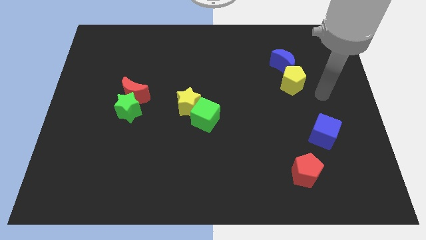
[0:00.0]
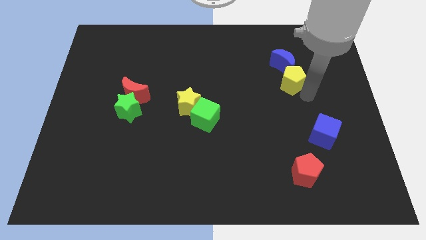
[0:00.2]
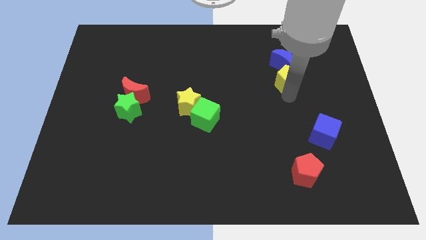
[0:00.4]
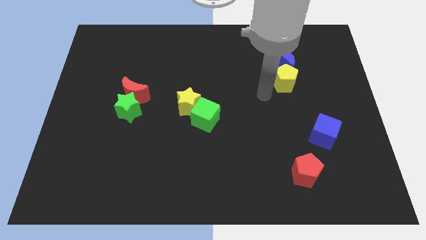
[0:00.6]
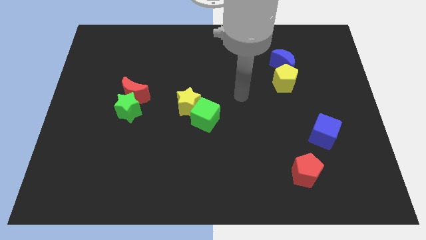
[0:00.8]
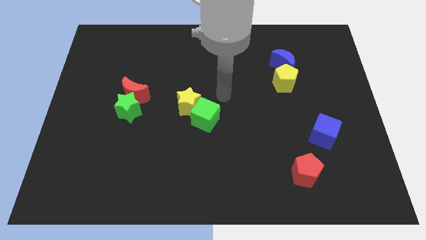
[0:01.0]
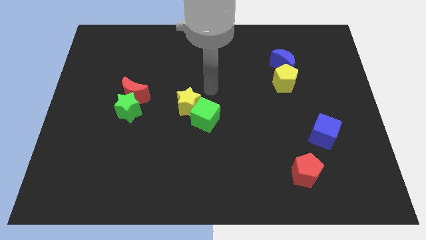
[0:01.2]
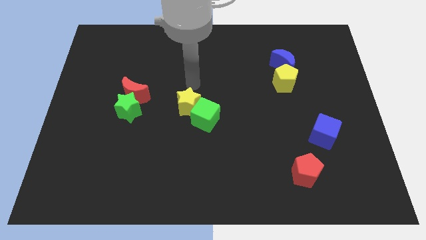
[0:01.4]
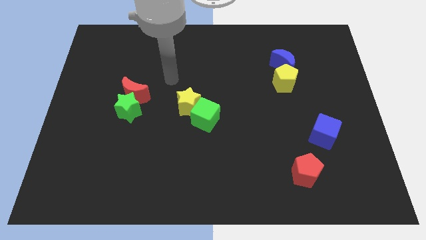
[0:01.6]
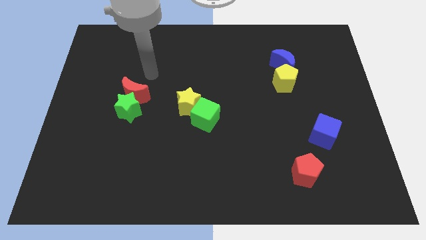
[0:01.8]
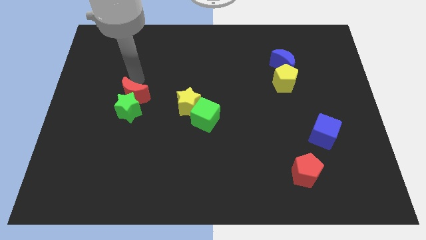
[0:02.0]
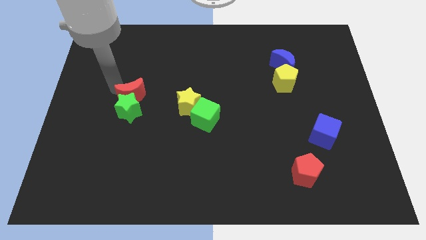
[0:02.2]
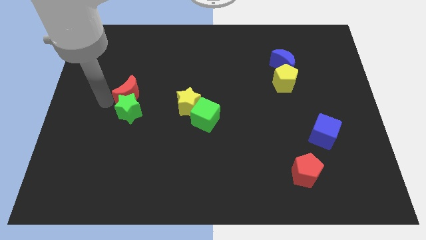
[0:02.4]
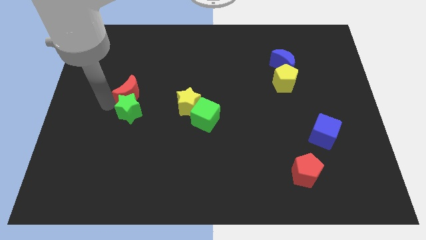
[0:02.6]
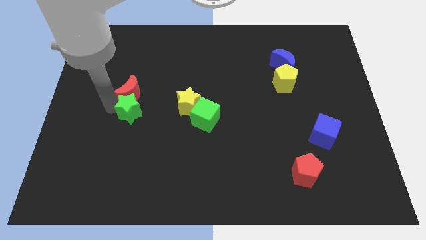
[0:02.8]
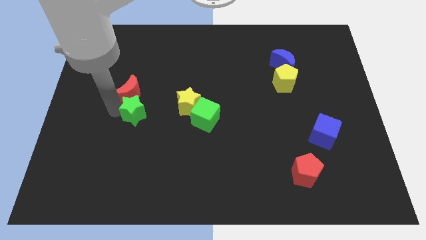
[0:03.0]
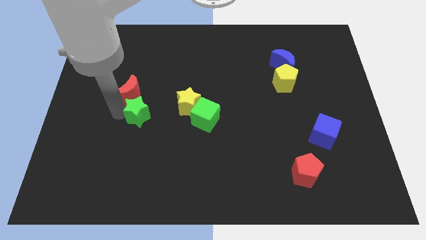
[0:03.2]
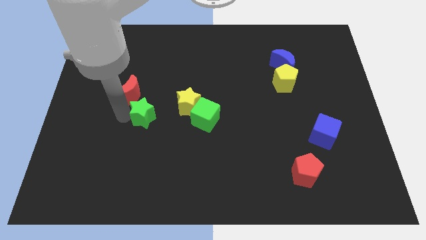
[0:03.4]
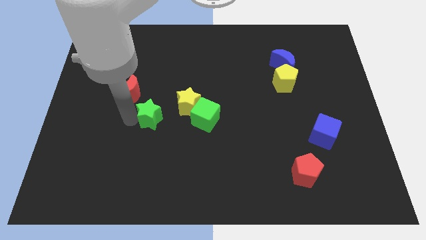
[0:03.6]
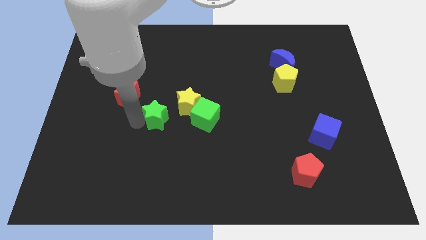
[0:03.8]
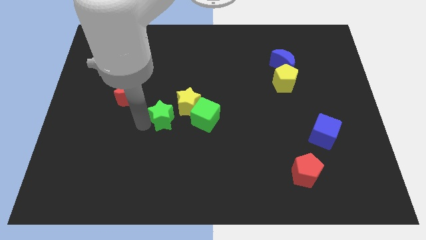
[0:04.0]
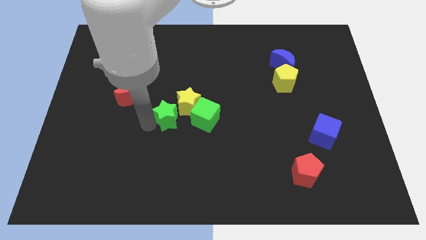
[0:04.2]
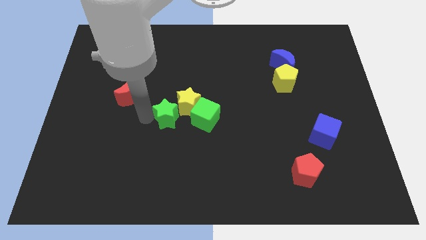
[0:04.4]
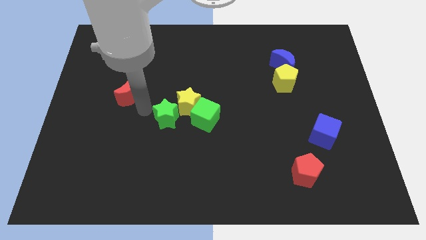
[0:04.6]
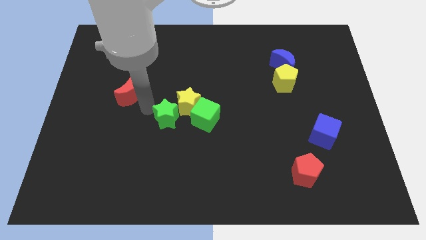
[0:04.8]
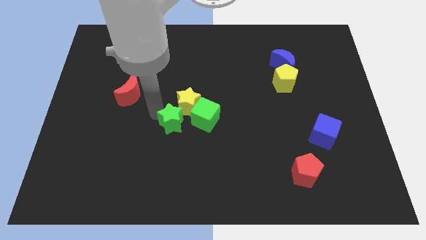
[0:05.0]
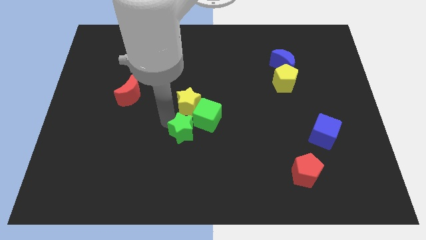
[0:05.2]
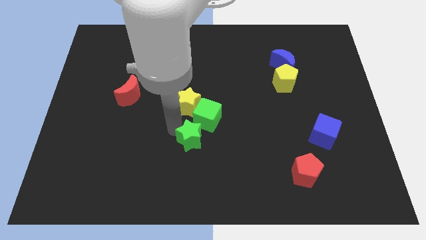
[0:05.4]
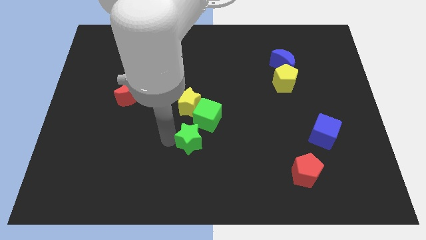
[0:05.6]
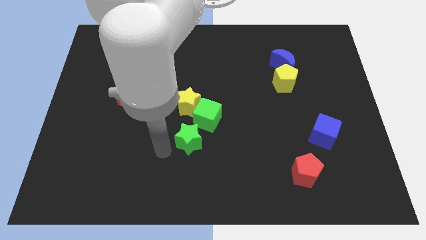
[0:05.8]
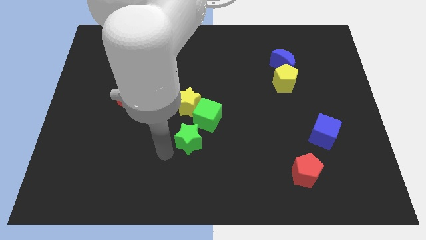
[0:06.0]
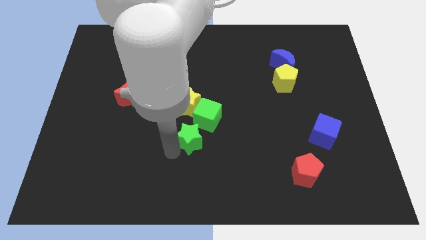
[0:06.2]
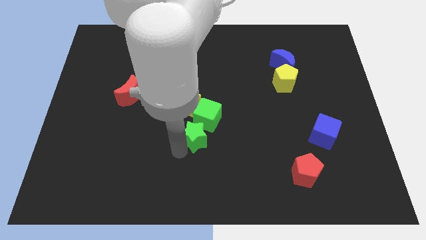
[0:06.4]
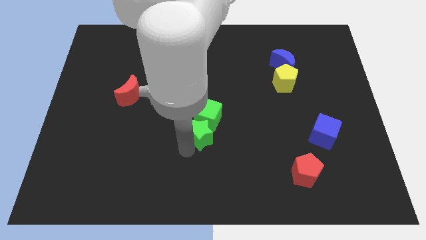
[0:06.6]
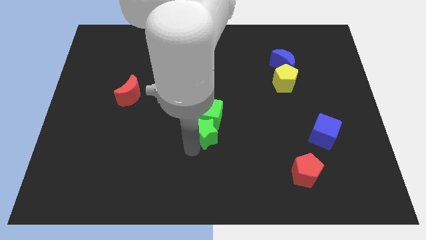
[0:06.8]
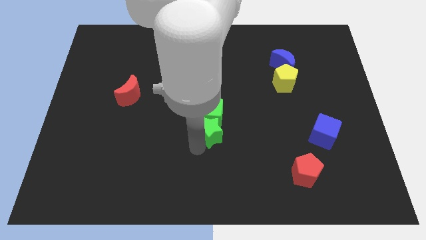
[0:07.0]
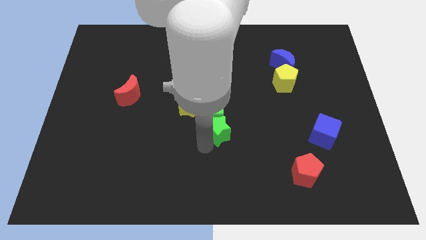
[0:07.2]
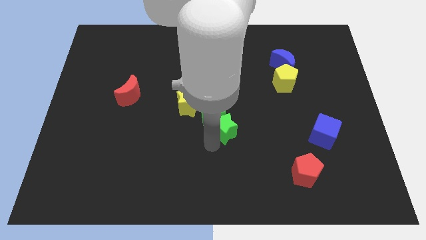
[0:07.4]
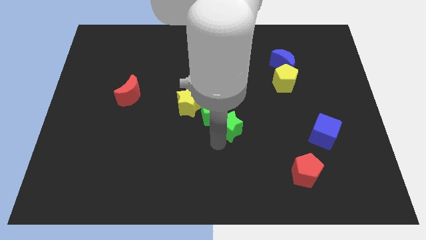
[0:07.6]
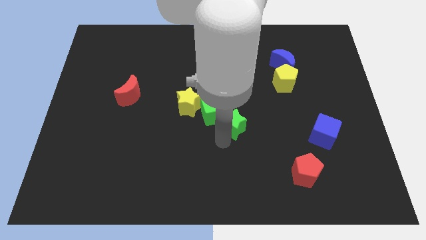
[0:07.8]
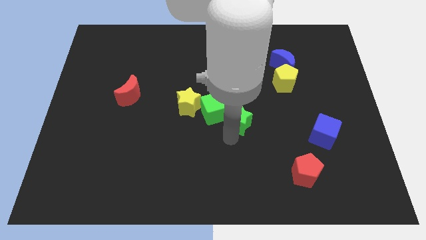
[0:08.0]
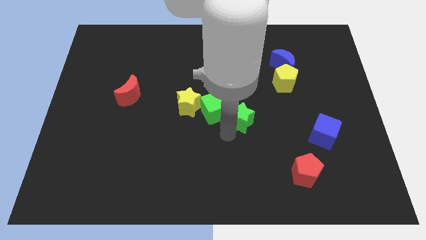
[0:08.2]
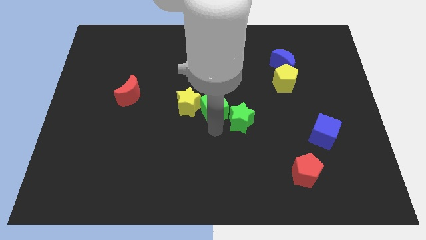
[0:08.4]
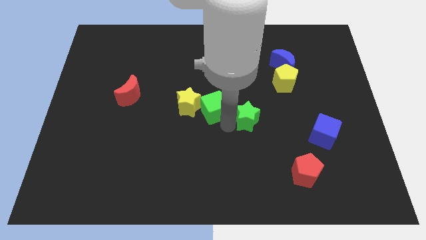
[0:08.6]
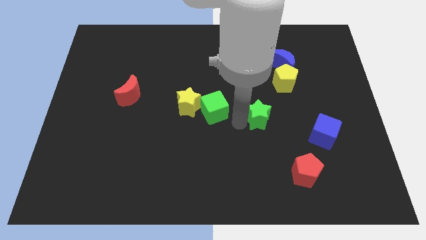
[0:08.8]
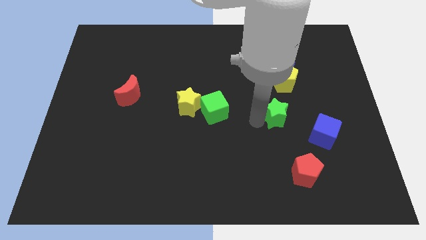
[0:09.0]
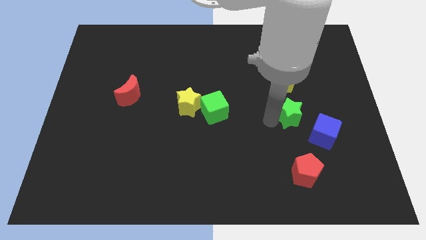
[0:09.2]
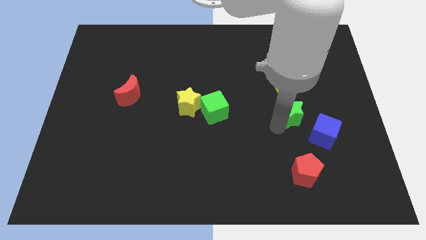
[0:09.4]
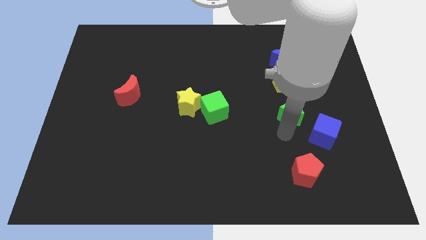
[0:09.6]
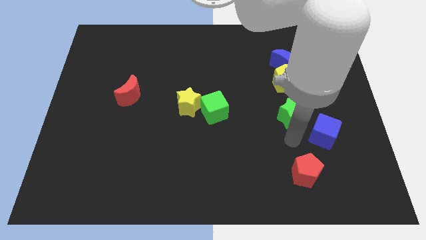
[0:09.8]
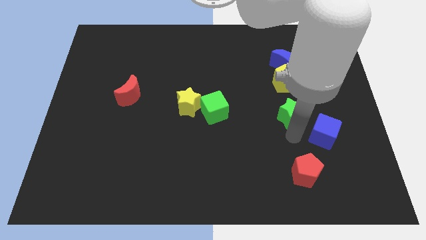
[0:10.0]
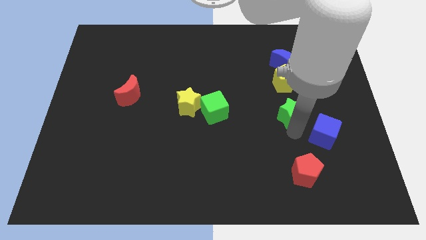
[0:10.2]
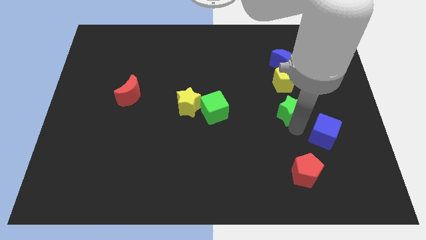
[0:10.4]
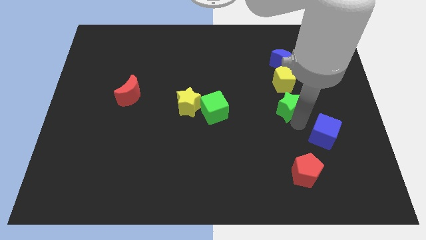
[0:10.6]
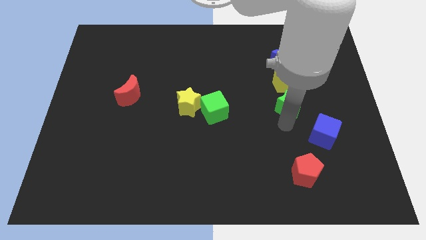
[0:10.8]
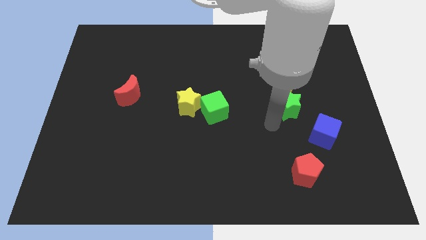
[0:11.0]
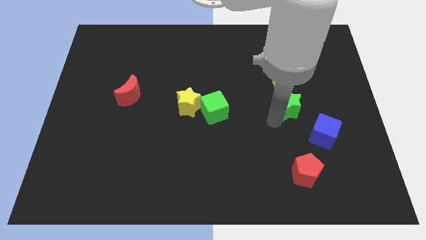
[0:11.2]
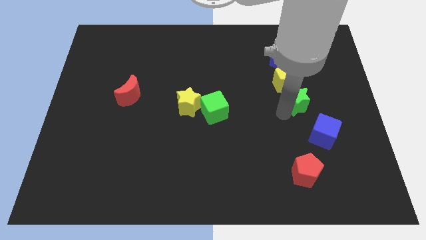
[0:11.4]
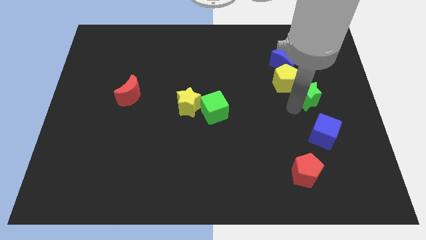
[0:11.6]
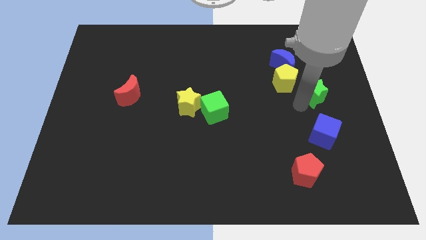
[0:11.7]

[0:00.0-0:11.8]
move the green star diagonally down and to the right of the blue moon

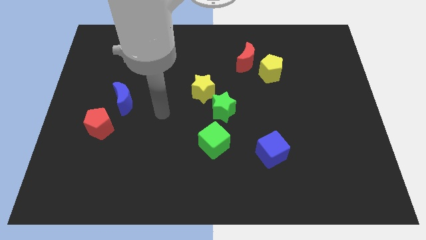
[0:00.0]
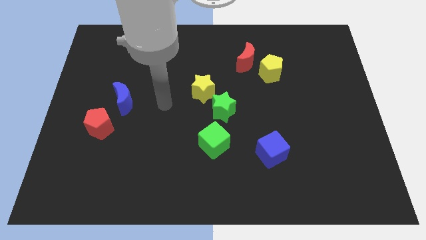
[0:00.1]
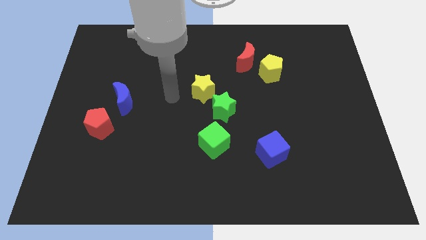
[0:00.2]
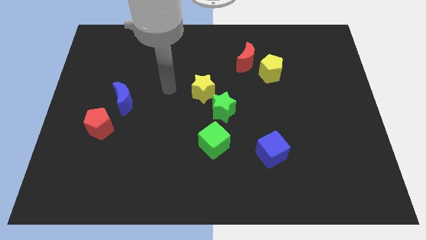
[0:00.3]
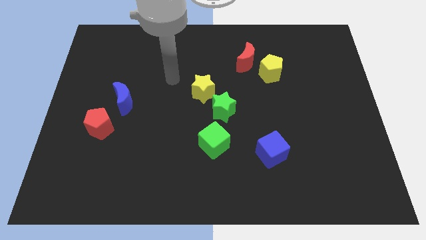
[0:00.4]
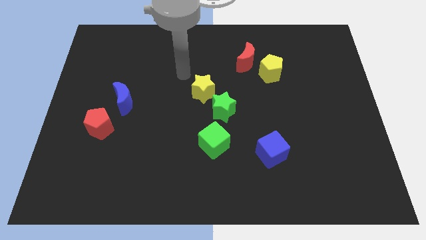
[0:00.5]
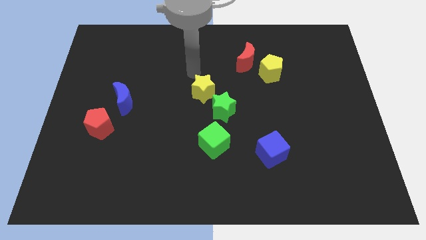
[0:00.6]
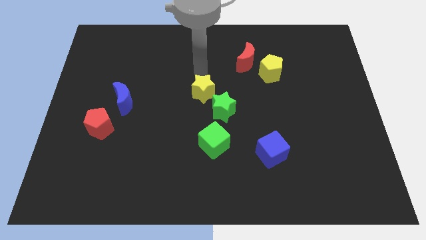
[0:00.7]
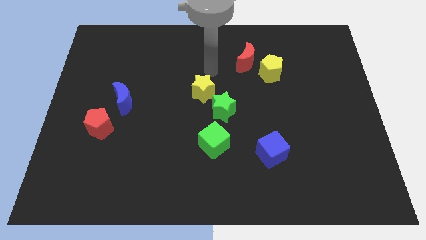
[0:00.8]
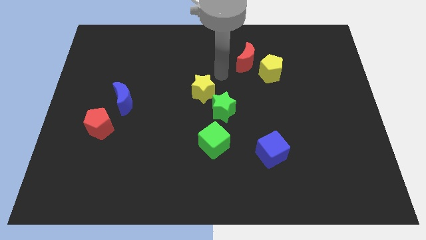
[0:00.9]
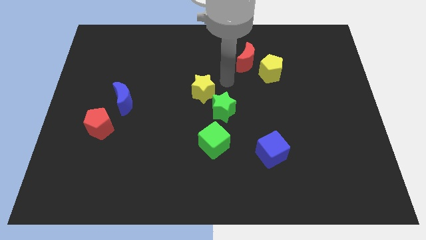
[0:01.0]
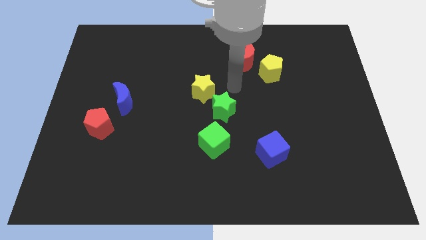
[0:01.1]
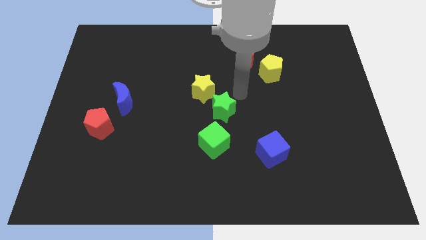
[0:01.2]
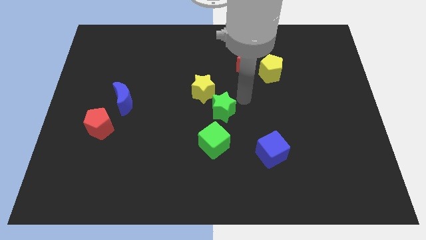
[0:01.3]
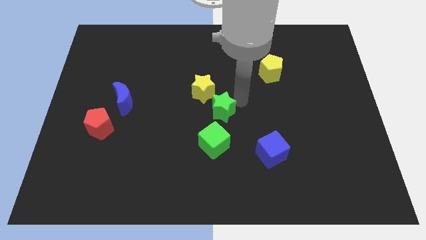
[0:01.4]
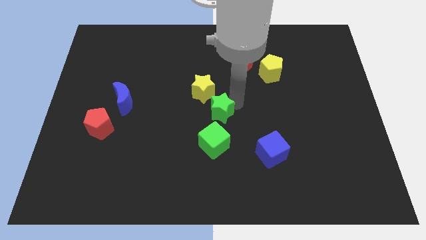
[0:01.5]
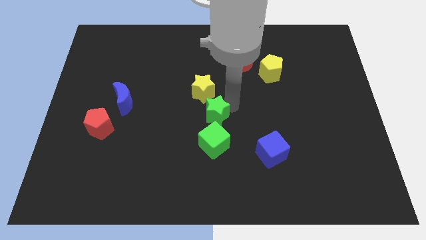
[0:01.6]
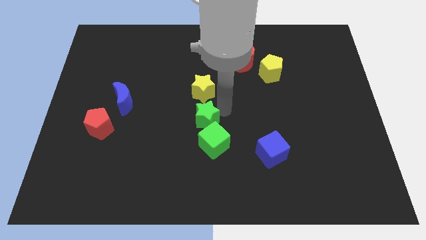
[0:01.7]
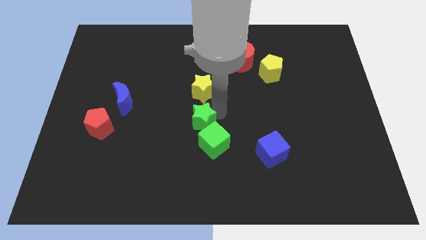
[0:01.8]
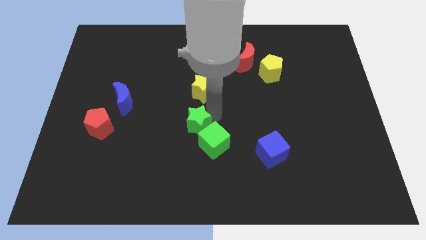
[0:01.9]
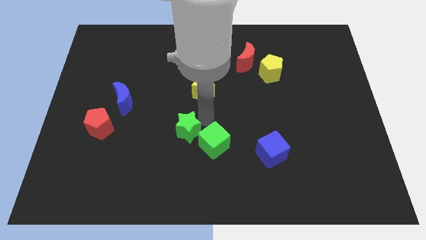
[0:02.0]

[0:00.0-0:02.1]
slide the green star to the left of the green cube
